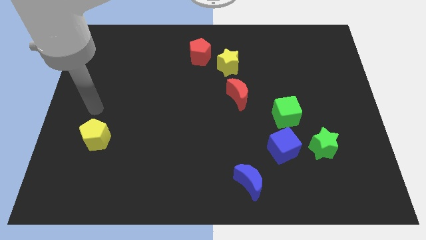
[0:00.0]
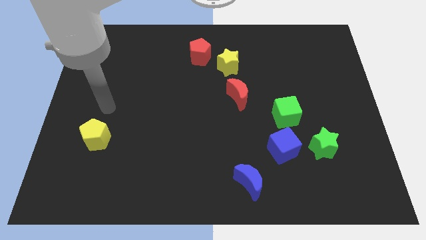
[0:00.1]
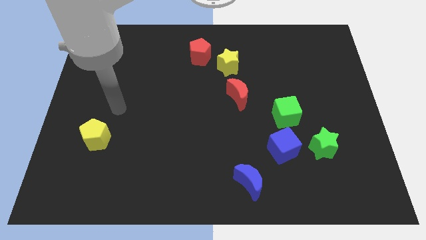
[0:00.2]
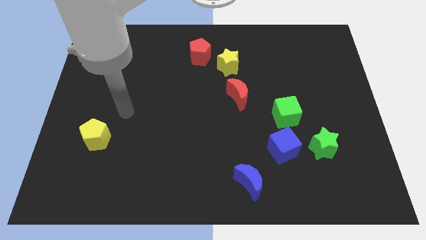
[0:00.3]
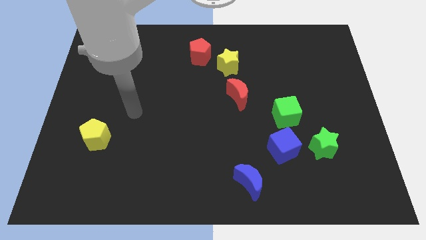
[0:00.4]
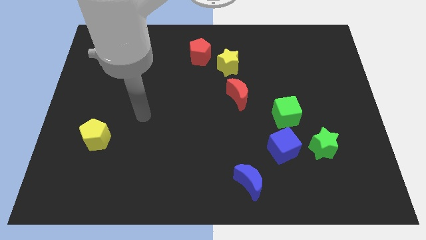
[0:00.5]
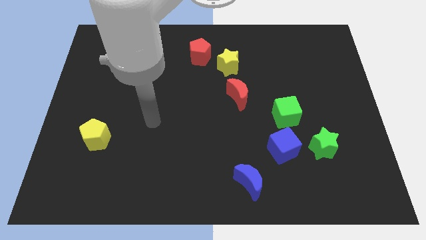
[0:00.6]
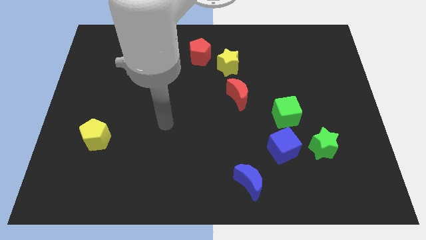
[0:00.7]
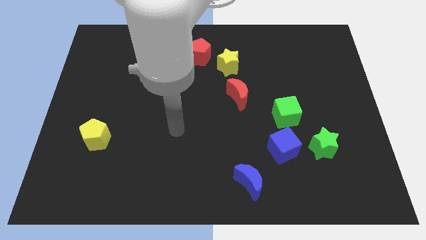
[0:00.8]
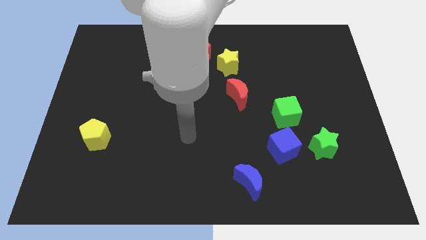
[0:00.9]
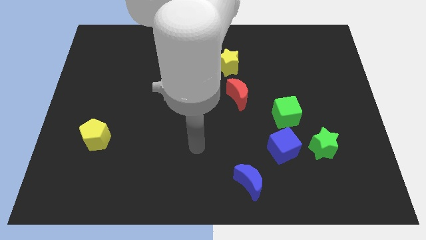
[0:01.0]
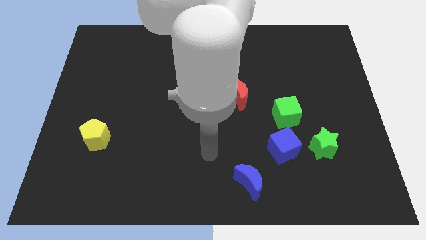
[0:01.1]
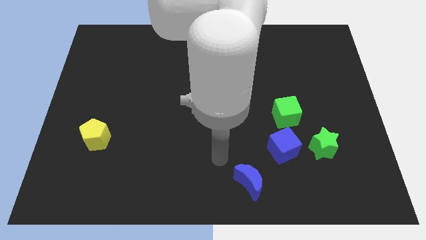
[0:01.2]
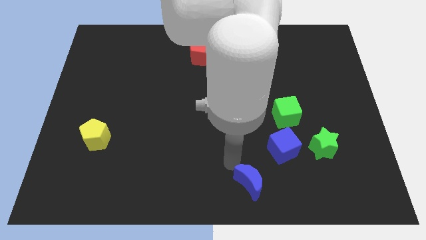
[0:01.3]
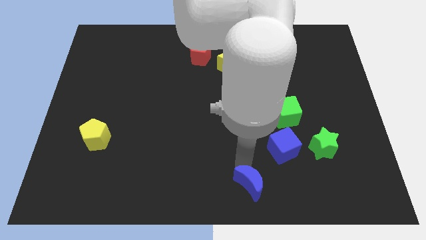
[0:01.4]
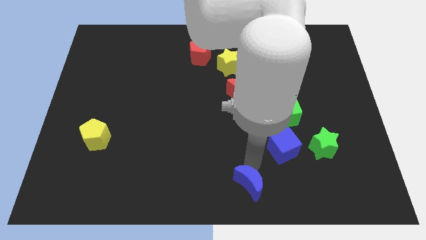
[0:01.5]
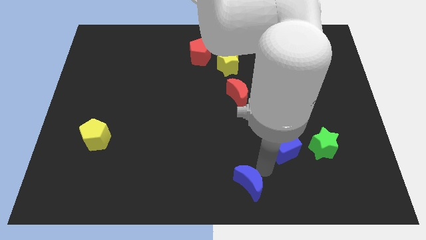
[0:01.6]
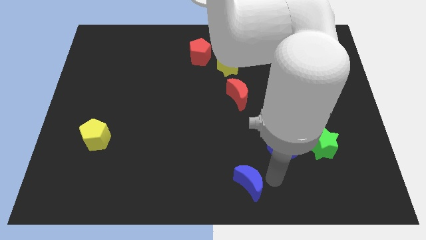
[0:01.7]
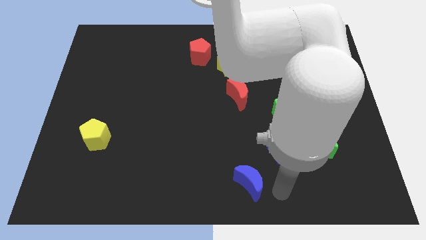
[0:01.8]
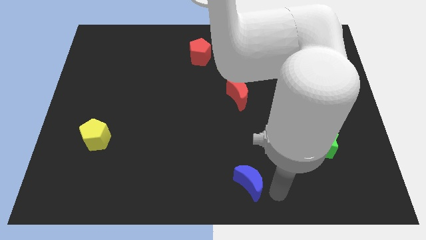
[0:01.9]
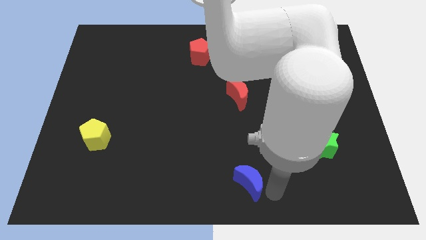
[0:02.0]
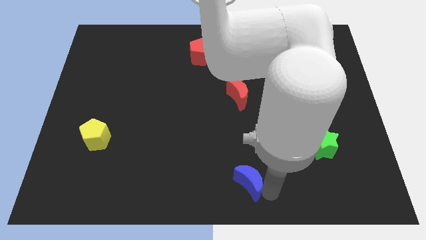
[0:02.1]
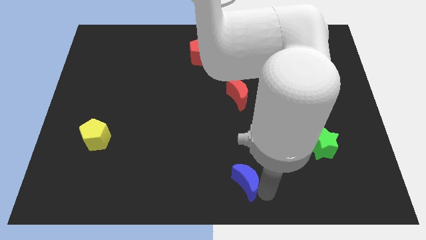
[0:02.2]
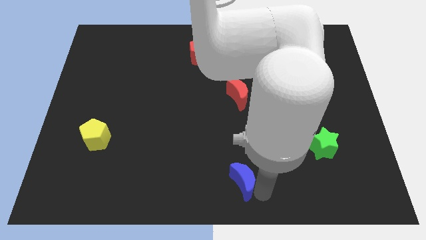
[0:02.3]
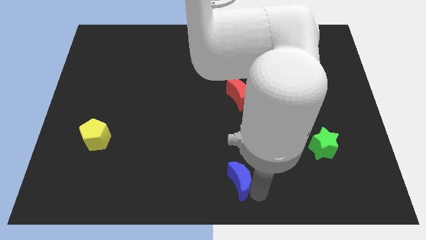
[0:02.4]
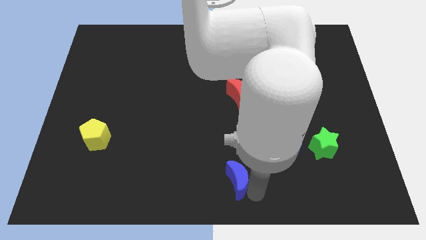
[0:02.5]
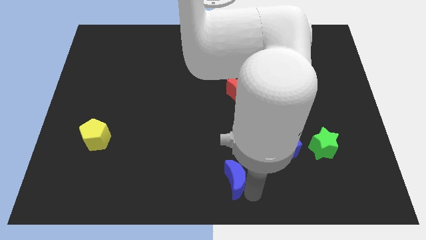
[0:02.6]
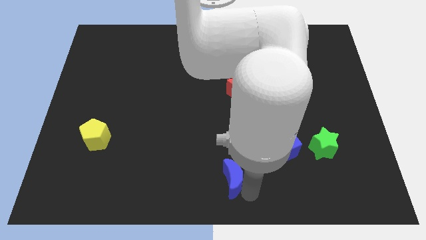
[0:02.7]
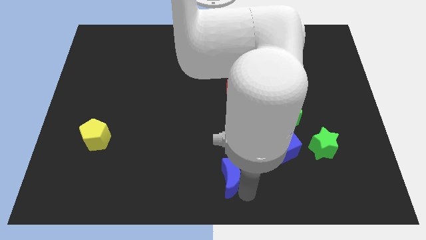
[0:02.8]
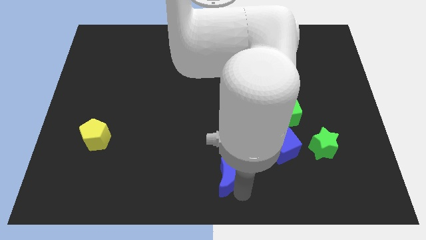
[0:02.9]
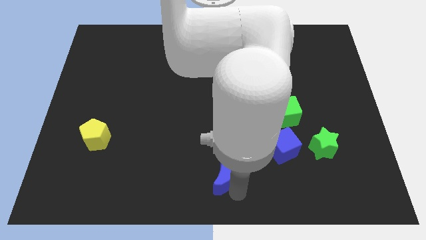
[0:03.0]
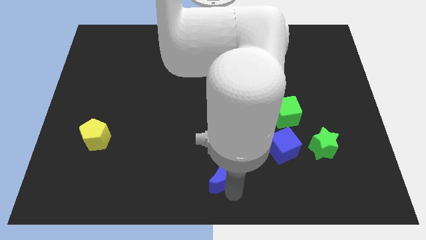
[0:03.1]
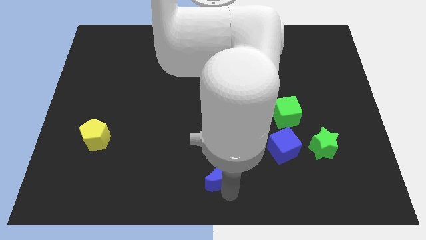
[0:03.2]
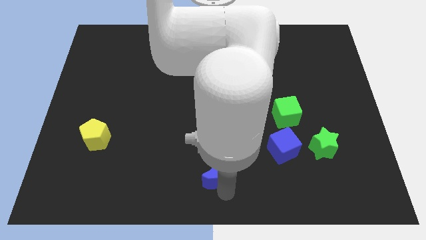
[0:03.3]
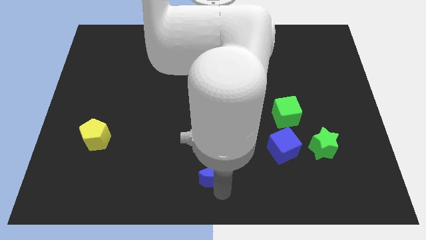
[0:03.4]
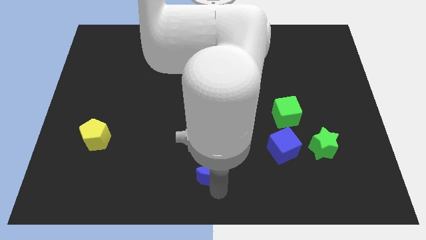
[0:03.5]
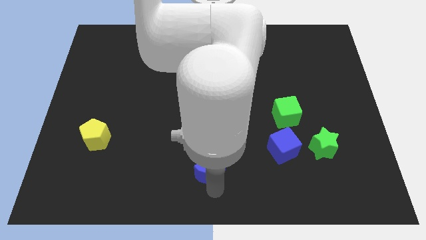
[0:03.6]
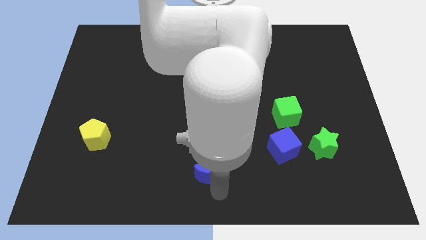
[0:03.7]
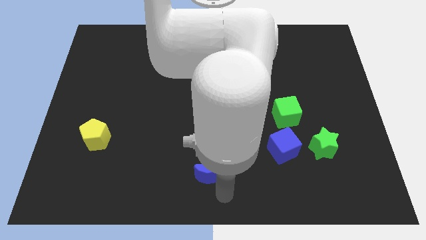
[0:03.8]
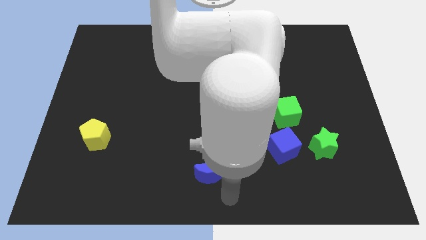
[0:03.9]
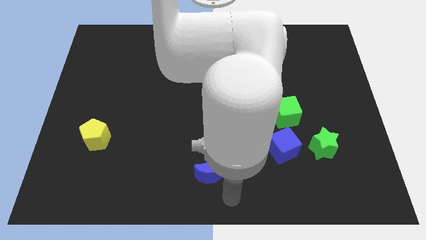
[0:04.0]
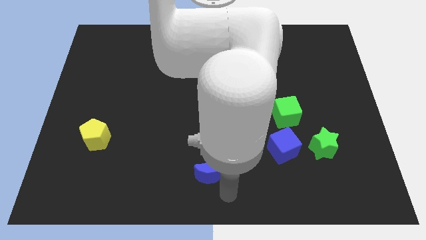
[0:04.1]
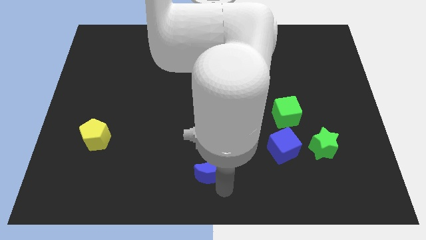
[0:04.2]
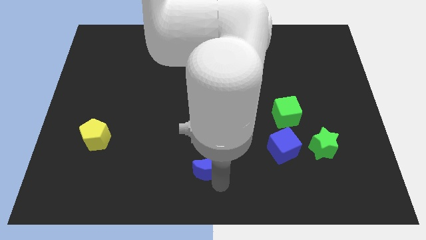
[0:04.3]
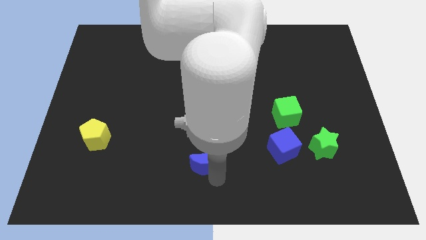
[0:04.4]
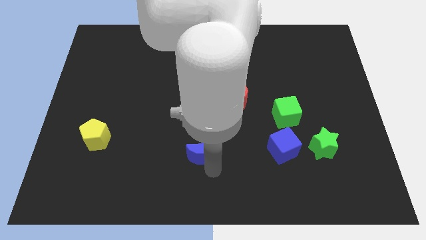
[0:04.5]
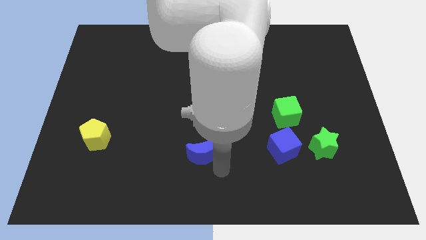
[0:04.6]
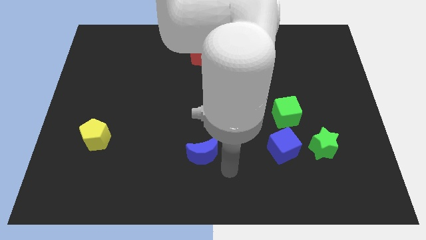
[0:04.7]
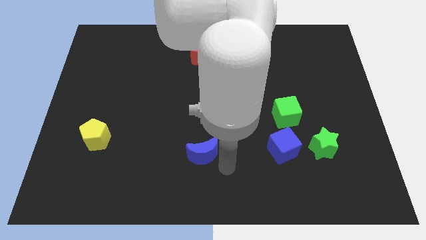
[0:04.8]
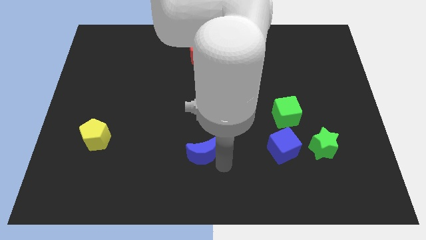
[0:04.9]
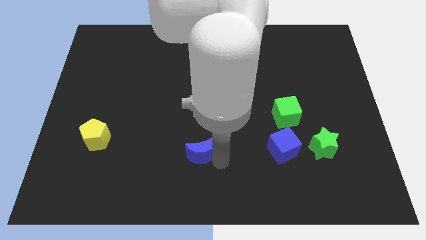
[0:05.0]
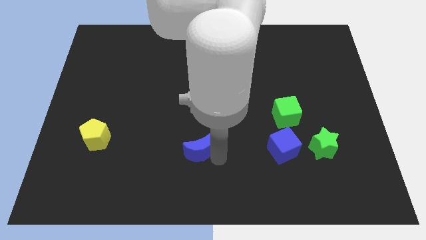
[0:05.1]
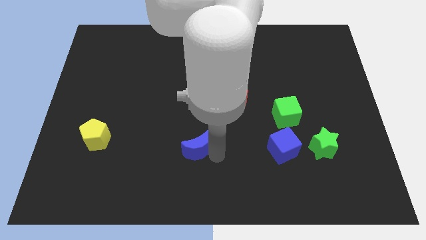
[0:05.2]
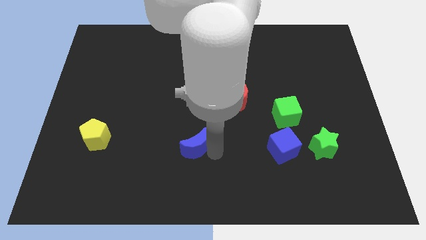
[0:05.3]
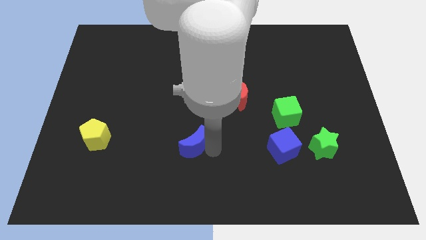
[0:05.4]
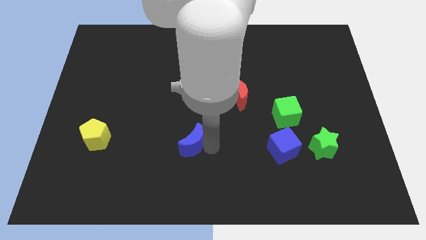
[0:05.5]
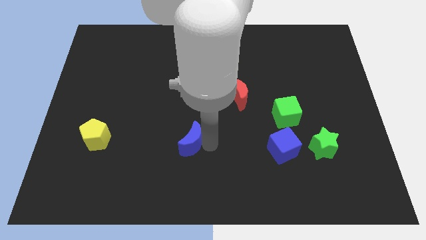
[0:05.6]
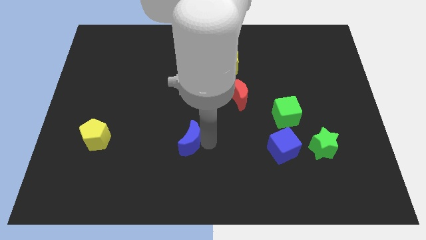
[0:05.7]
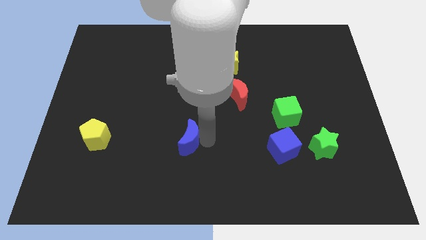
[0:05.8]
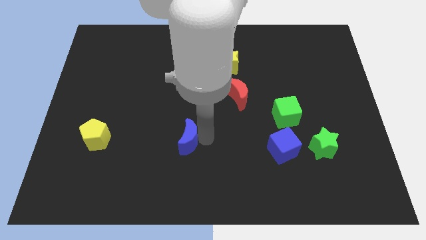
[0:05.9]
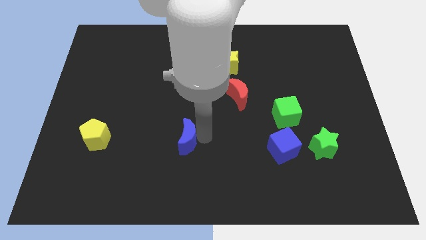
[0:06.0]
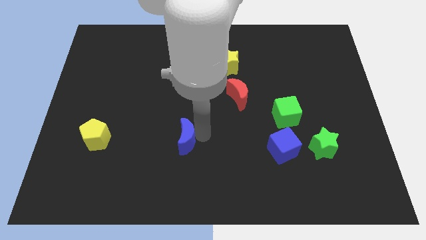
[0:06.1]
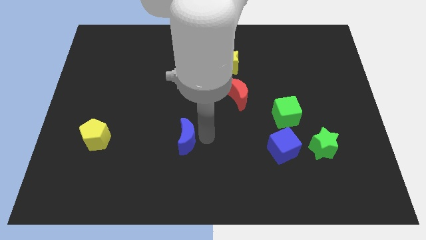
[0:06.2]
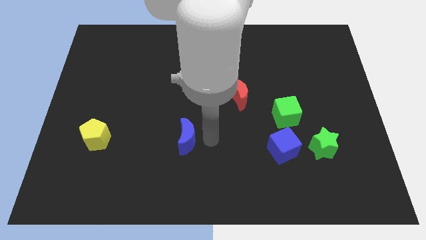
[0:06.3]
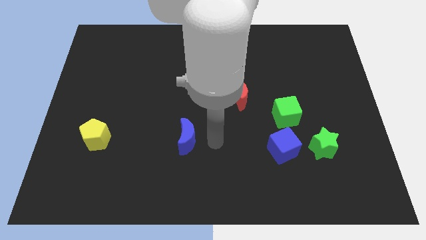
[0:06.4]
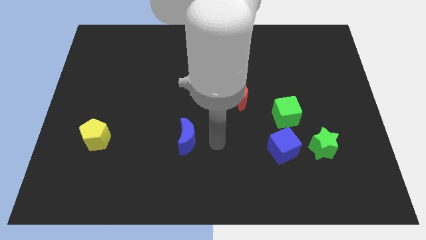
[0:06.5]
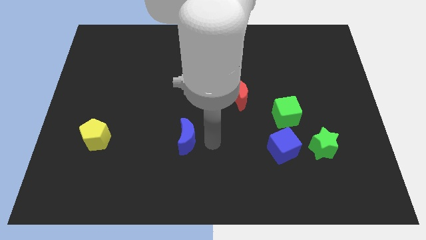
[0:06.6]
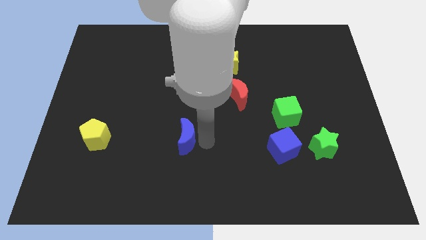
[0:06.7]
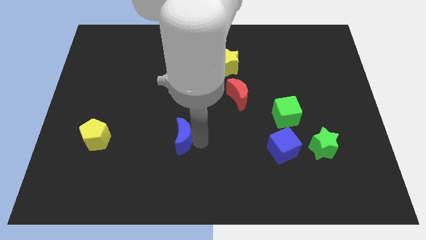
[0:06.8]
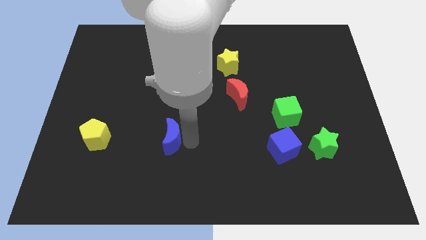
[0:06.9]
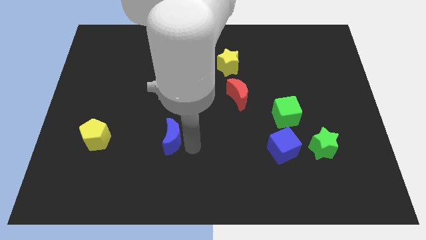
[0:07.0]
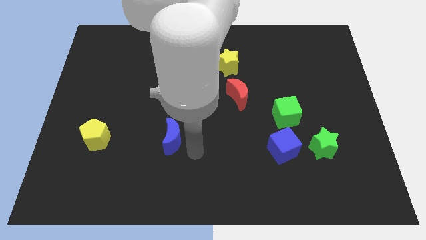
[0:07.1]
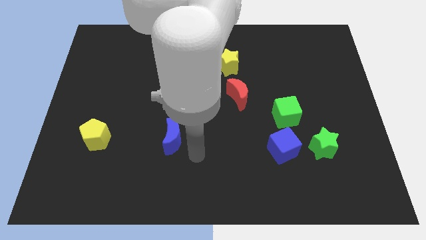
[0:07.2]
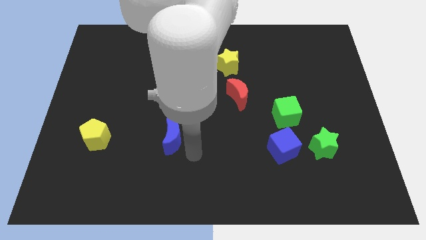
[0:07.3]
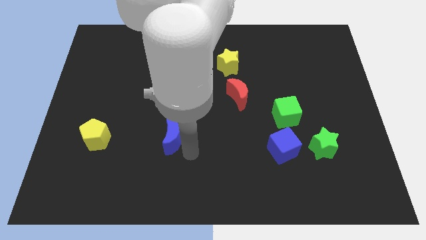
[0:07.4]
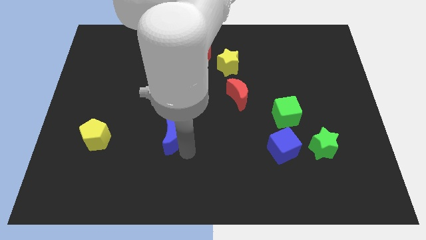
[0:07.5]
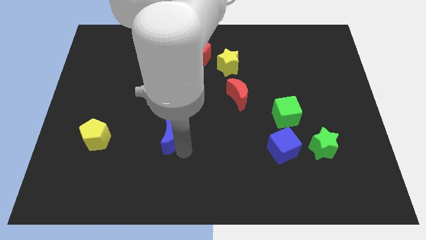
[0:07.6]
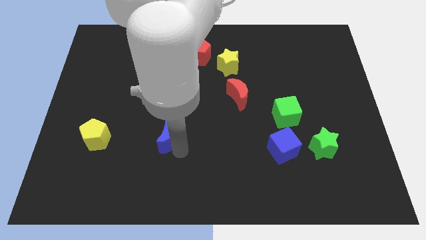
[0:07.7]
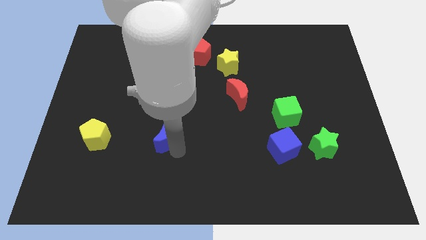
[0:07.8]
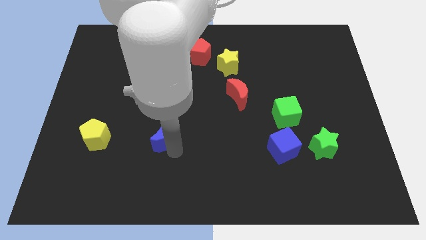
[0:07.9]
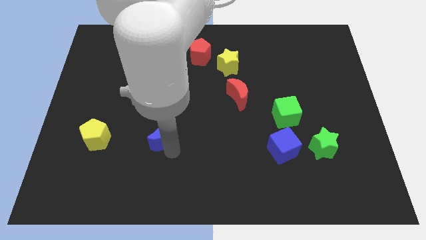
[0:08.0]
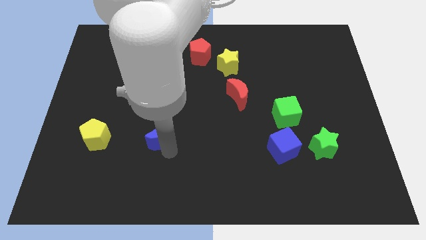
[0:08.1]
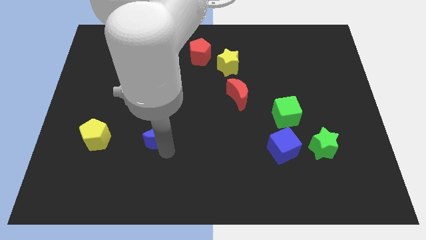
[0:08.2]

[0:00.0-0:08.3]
push the blue moon diagonally up and to the left

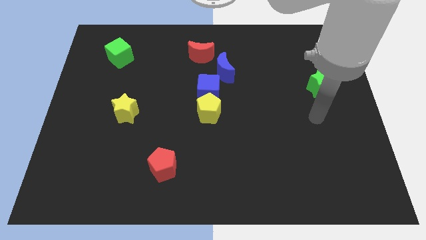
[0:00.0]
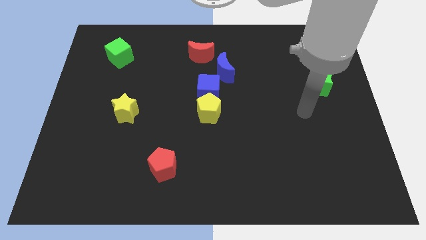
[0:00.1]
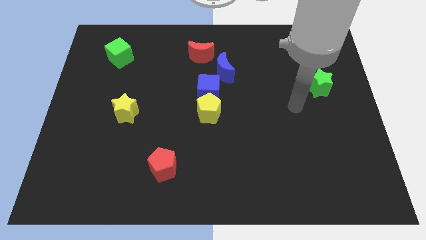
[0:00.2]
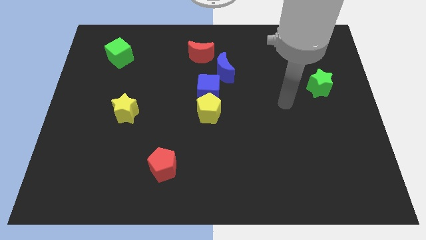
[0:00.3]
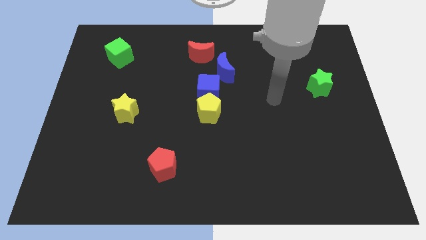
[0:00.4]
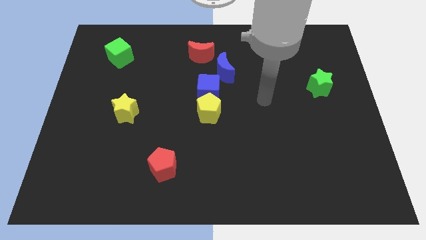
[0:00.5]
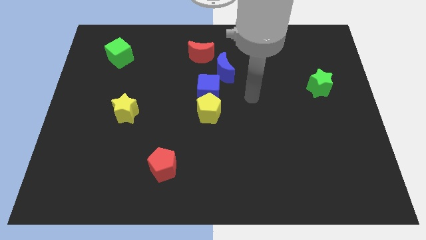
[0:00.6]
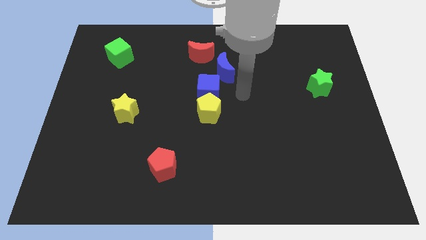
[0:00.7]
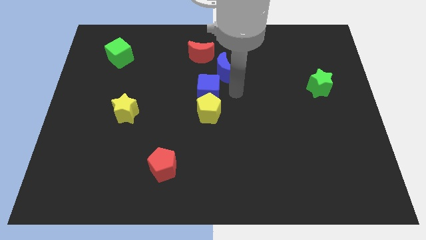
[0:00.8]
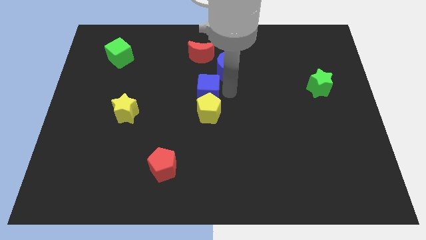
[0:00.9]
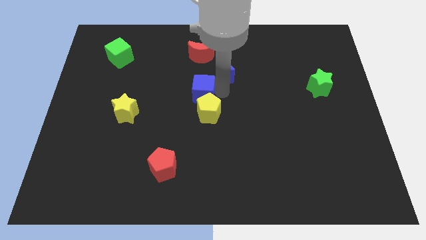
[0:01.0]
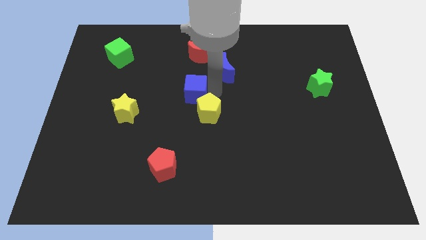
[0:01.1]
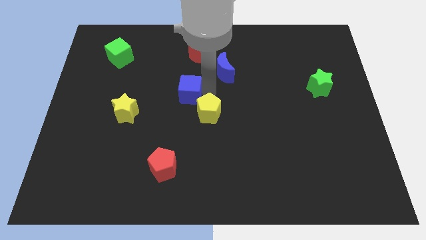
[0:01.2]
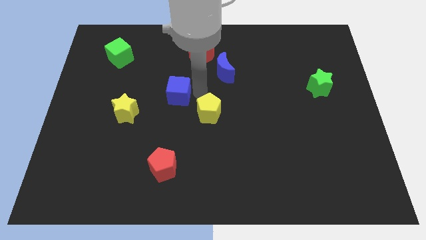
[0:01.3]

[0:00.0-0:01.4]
slightly slide the blue cube to the left
